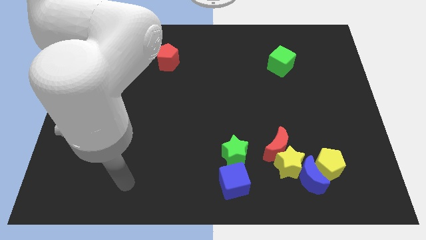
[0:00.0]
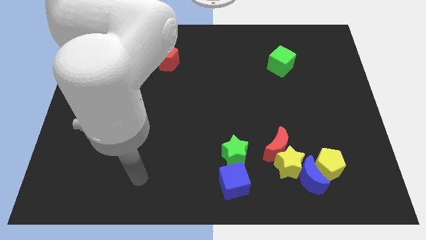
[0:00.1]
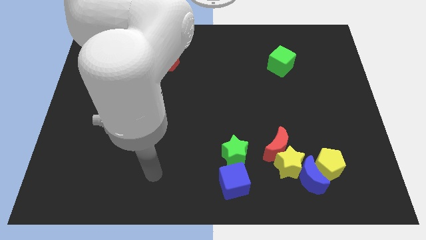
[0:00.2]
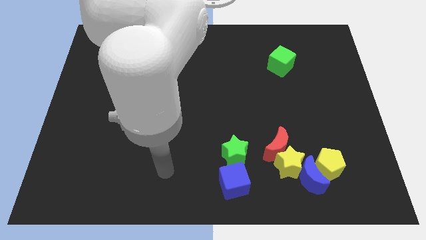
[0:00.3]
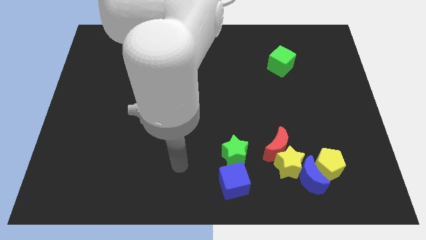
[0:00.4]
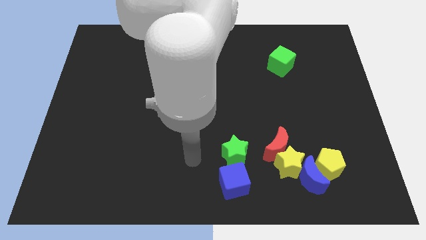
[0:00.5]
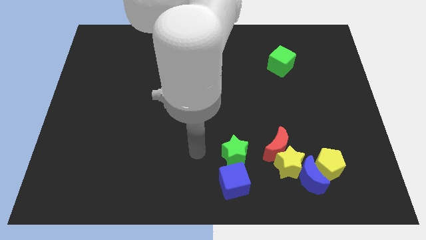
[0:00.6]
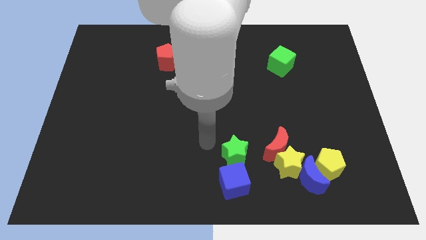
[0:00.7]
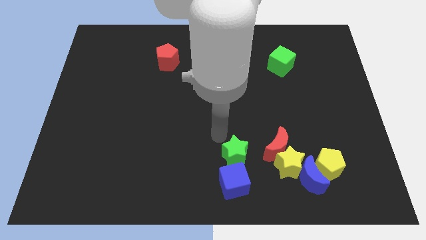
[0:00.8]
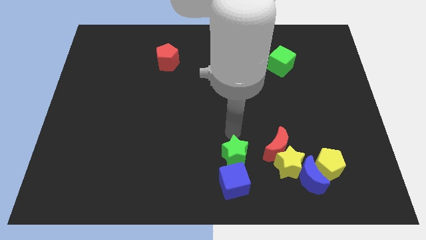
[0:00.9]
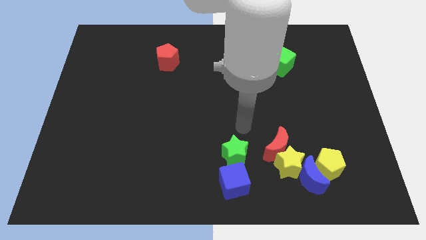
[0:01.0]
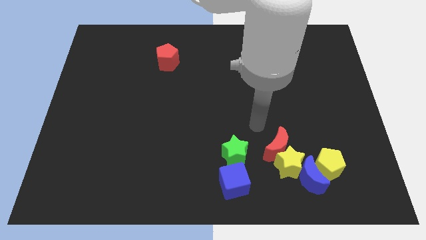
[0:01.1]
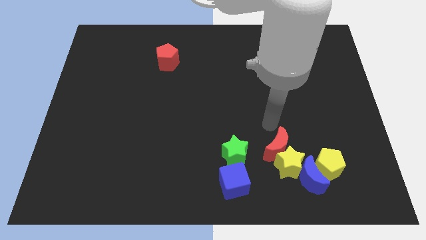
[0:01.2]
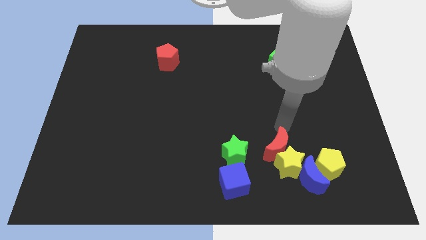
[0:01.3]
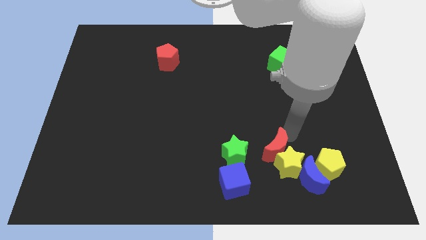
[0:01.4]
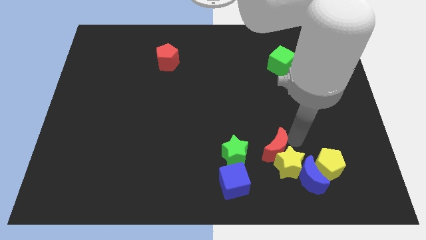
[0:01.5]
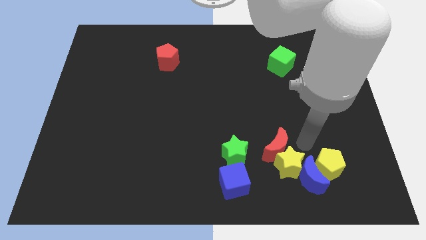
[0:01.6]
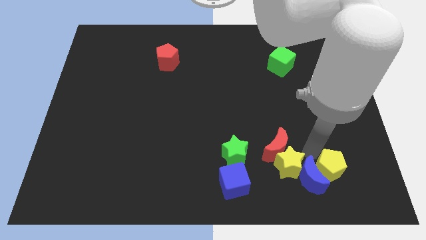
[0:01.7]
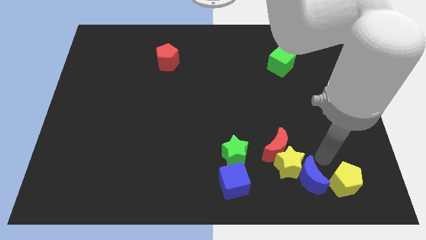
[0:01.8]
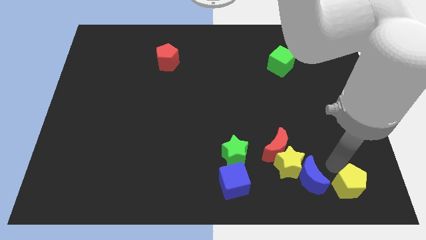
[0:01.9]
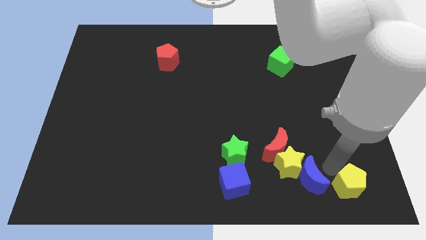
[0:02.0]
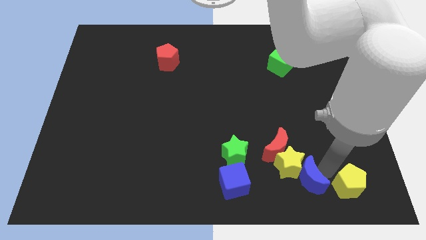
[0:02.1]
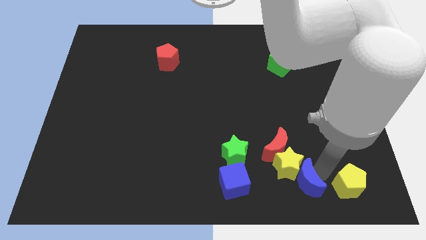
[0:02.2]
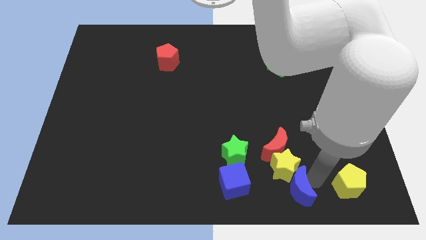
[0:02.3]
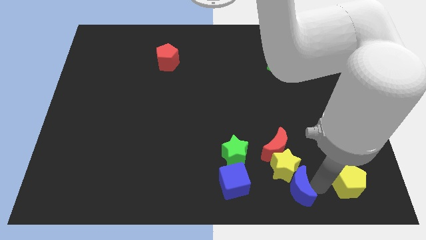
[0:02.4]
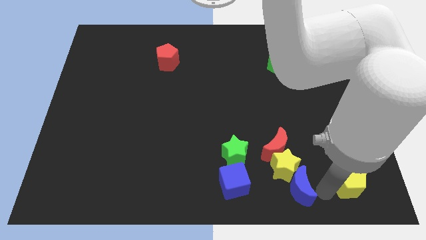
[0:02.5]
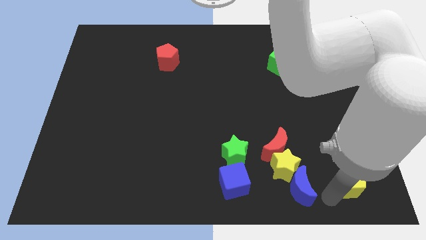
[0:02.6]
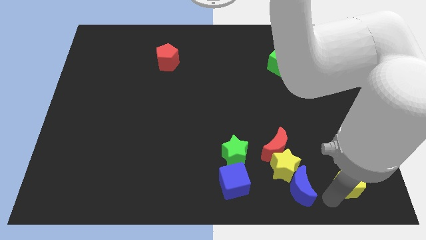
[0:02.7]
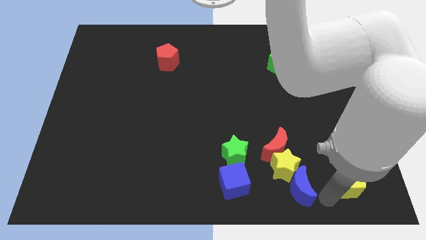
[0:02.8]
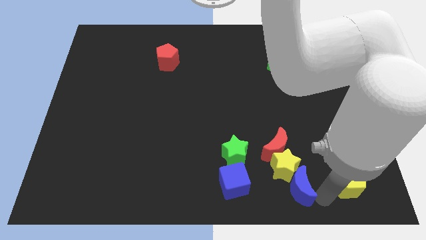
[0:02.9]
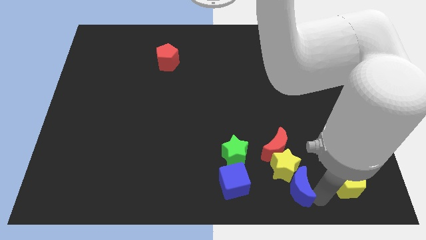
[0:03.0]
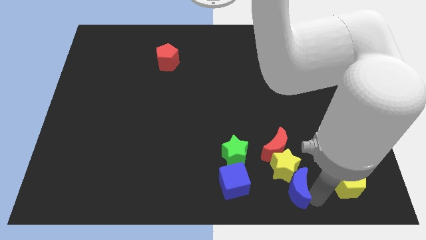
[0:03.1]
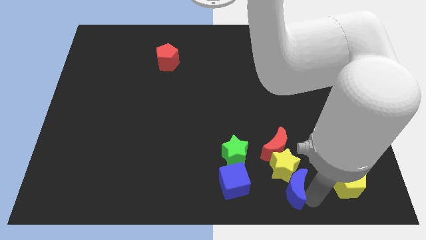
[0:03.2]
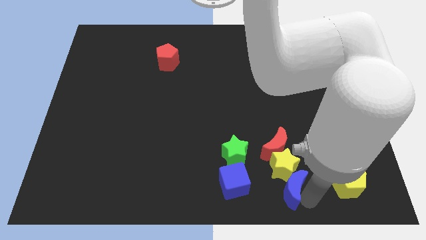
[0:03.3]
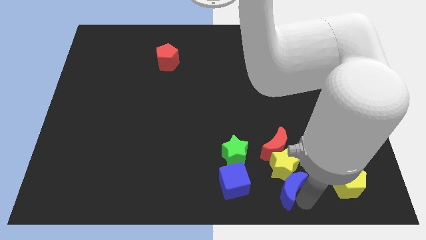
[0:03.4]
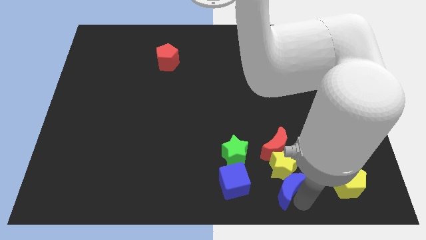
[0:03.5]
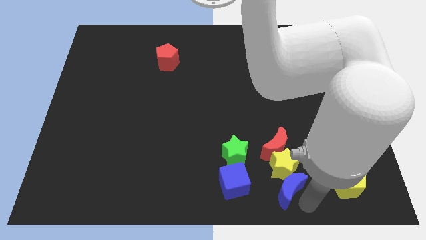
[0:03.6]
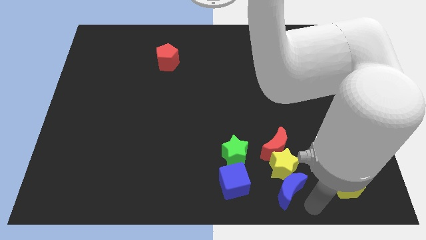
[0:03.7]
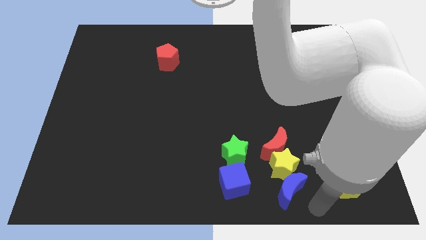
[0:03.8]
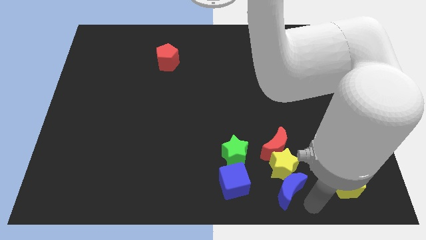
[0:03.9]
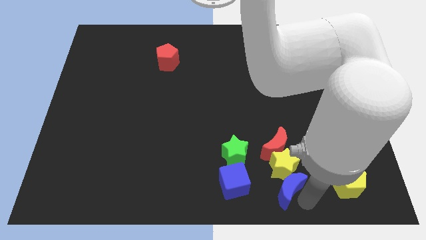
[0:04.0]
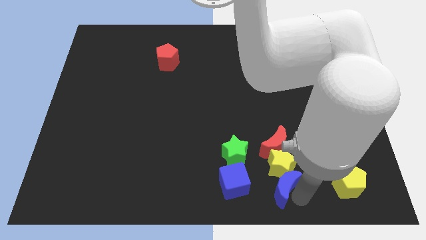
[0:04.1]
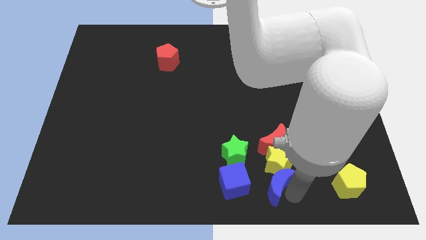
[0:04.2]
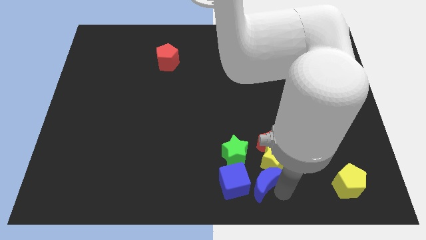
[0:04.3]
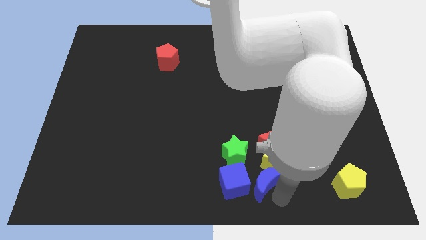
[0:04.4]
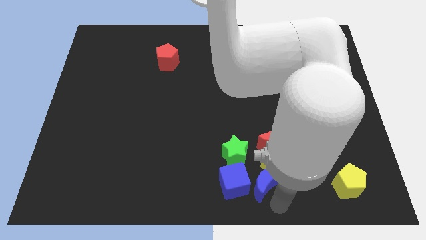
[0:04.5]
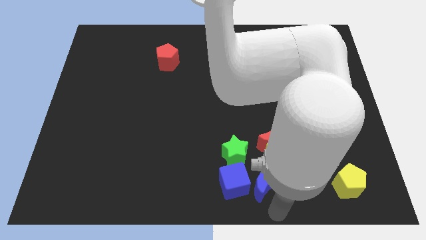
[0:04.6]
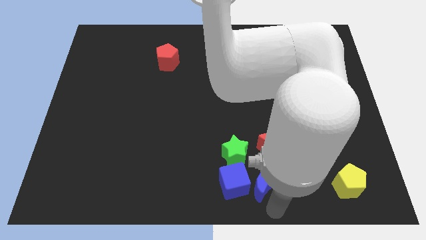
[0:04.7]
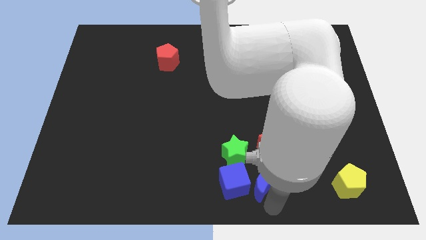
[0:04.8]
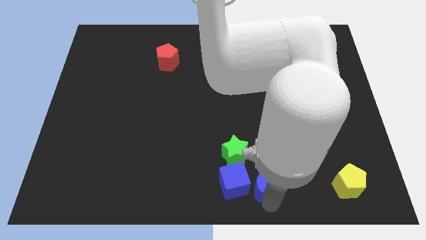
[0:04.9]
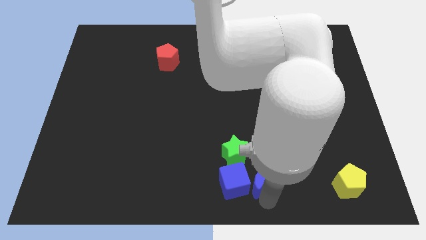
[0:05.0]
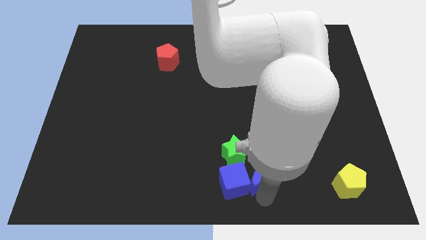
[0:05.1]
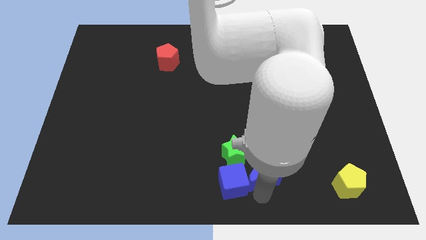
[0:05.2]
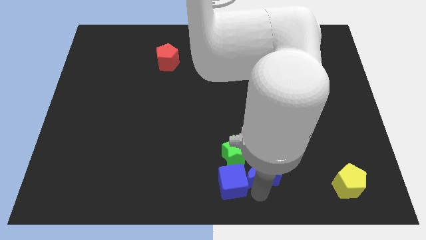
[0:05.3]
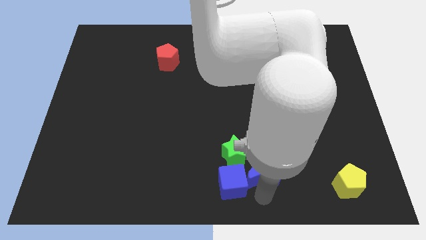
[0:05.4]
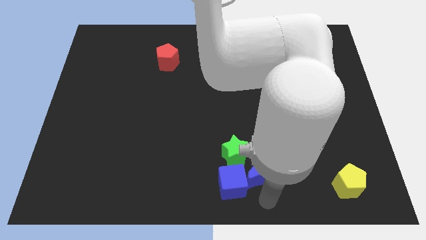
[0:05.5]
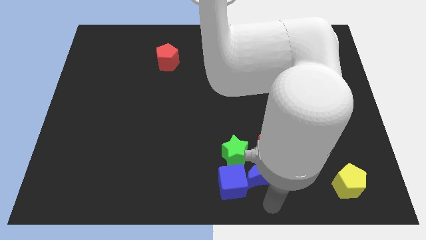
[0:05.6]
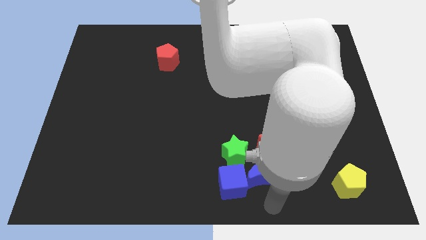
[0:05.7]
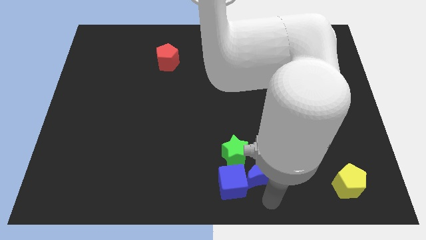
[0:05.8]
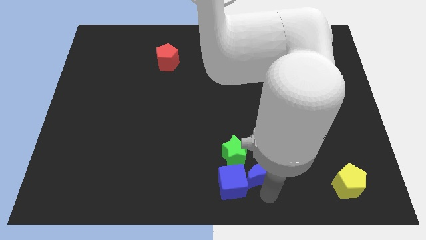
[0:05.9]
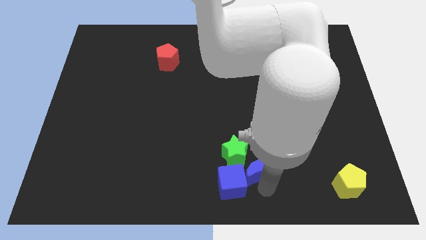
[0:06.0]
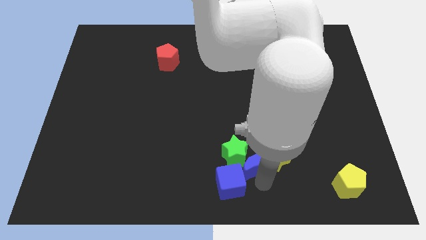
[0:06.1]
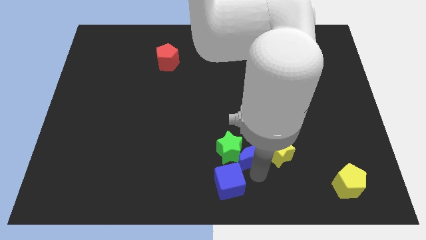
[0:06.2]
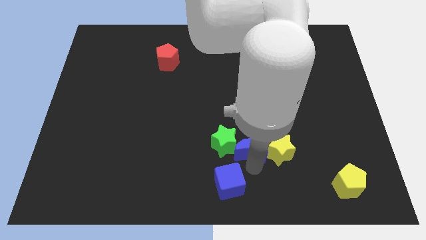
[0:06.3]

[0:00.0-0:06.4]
push the blue moon diagonally up and to the left of the yellow star

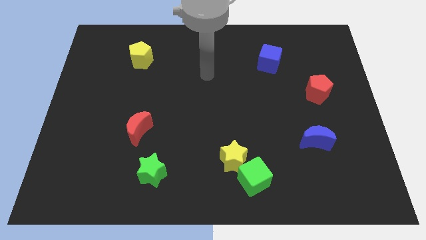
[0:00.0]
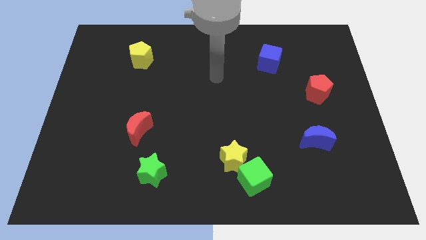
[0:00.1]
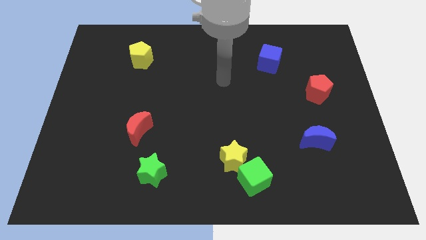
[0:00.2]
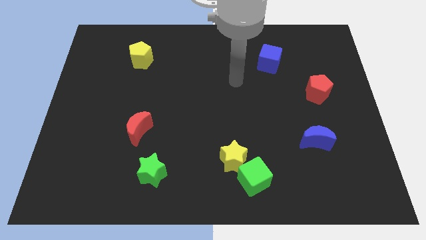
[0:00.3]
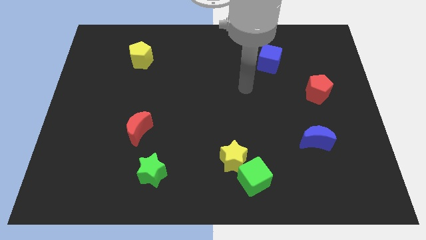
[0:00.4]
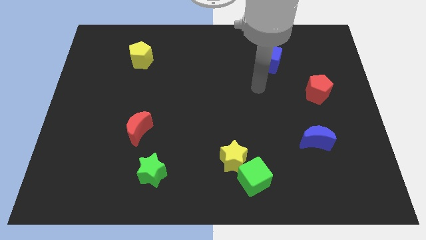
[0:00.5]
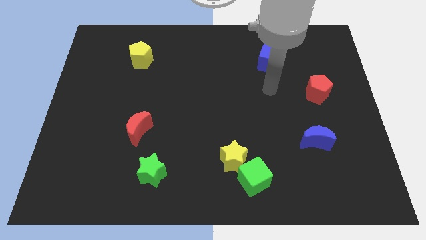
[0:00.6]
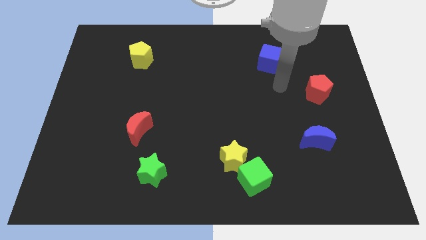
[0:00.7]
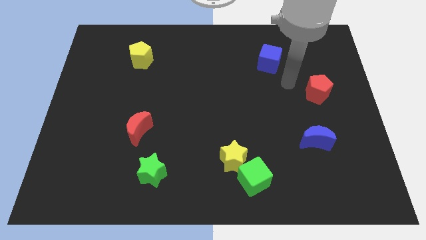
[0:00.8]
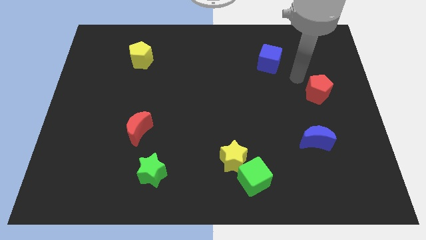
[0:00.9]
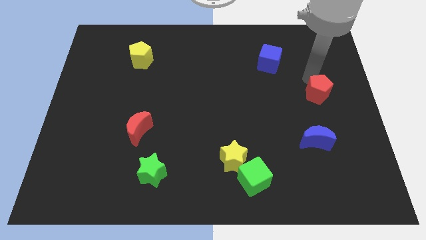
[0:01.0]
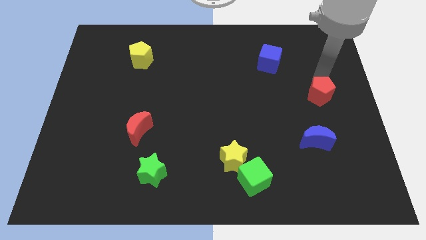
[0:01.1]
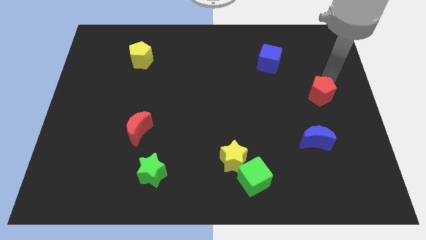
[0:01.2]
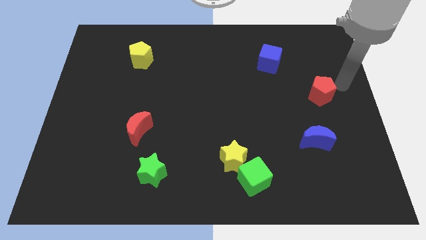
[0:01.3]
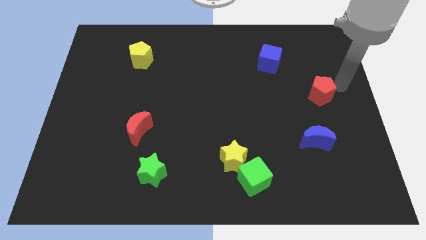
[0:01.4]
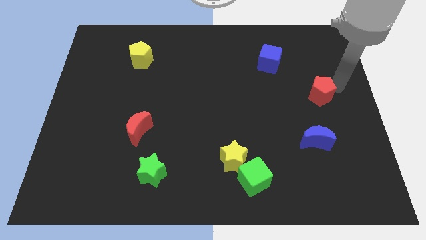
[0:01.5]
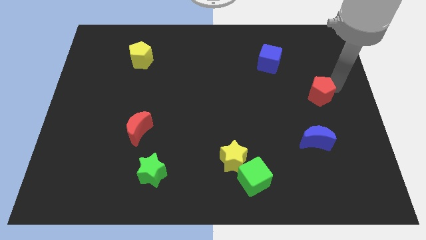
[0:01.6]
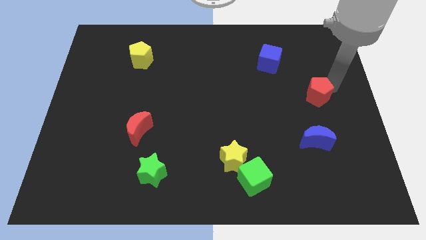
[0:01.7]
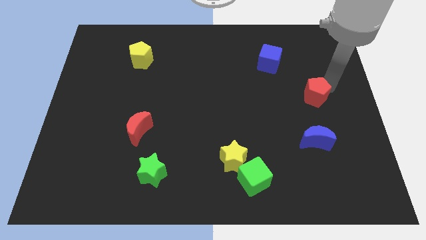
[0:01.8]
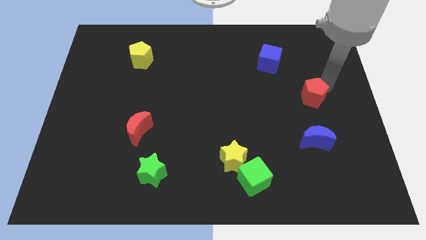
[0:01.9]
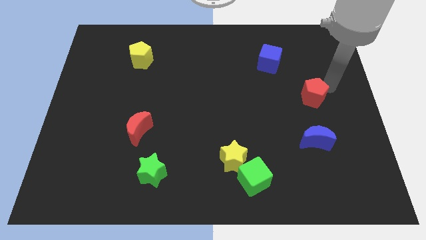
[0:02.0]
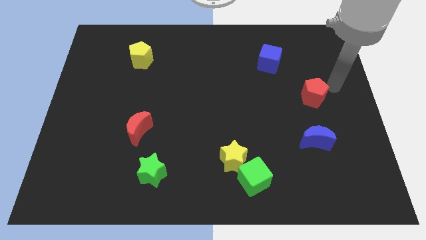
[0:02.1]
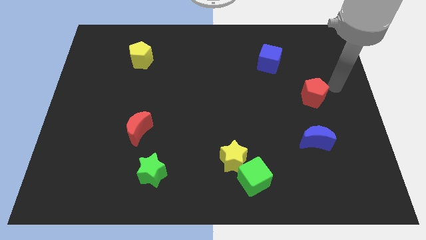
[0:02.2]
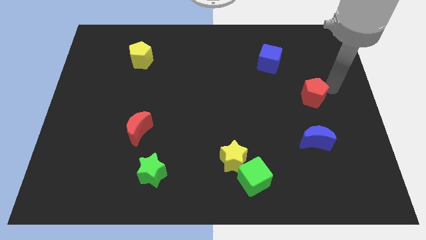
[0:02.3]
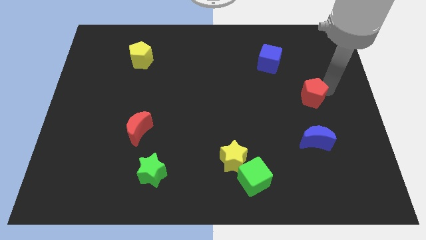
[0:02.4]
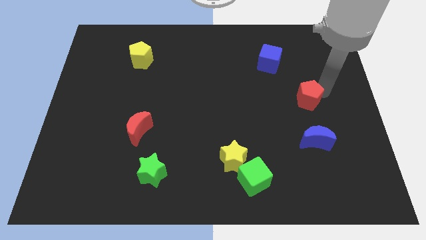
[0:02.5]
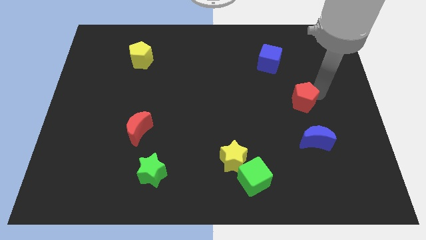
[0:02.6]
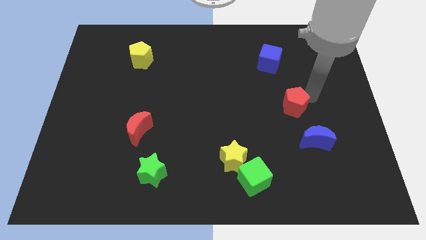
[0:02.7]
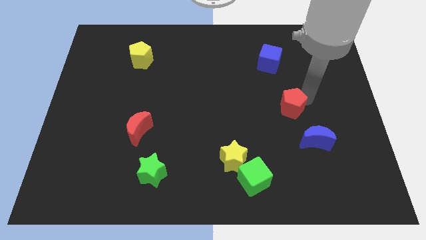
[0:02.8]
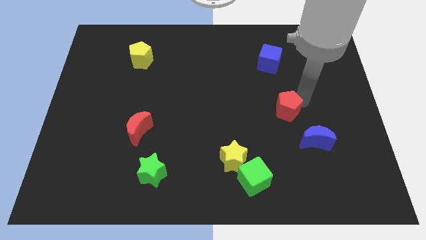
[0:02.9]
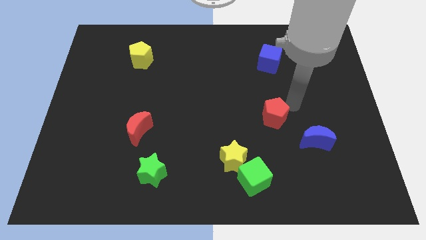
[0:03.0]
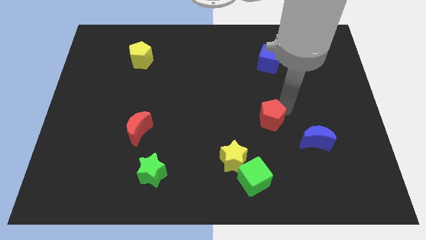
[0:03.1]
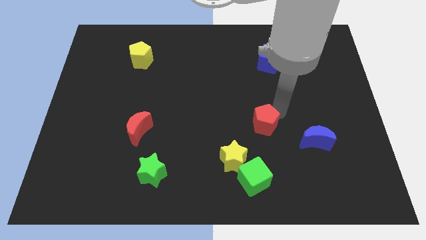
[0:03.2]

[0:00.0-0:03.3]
put the red pentagon above the green cube
